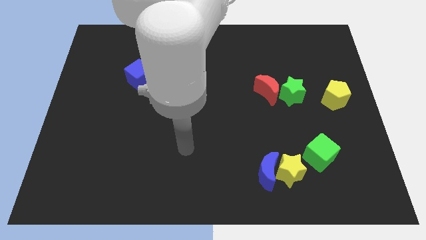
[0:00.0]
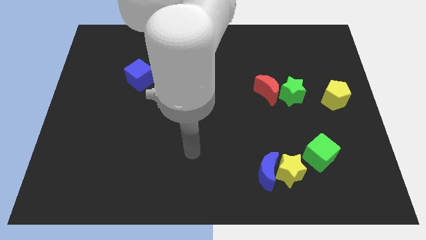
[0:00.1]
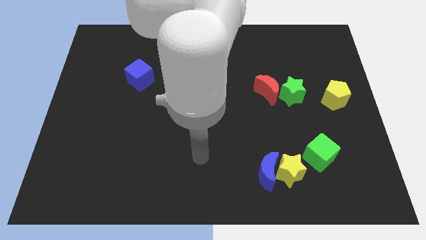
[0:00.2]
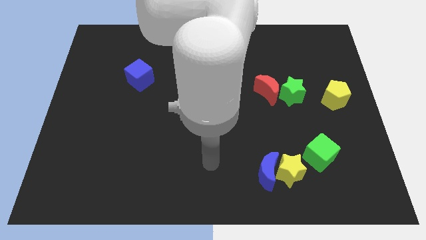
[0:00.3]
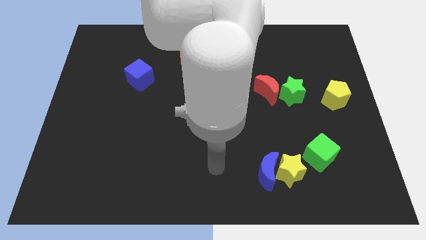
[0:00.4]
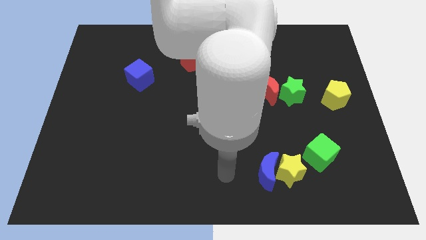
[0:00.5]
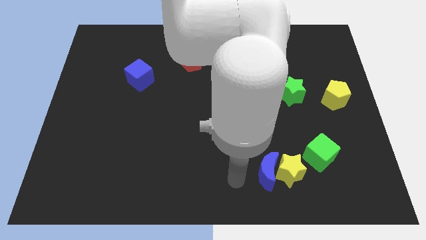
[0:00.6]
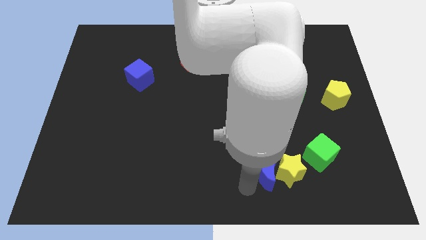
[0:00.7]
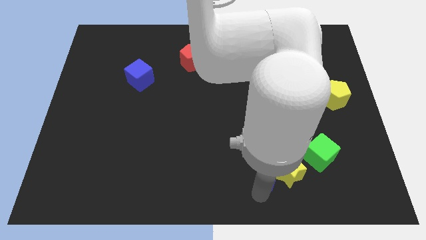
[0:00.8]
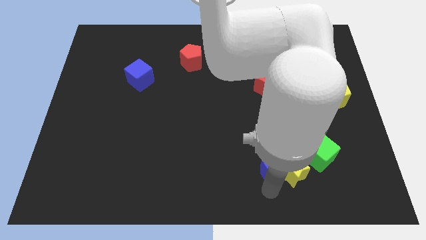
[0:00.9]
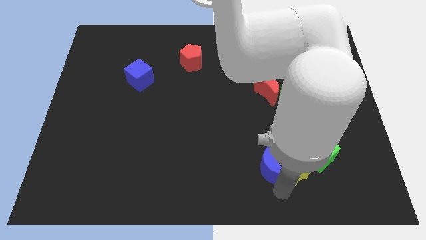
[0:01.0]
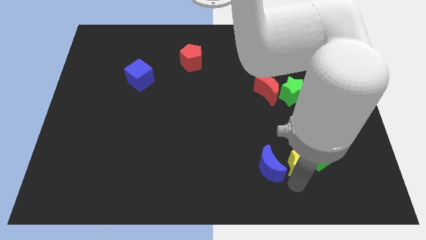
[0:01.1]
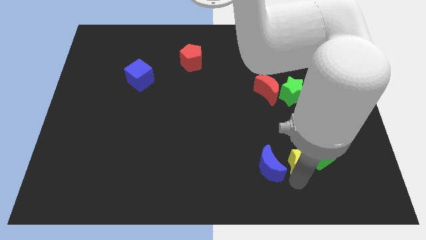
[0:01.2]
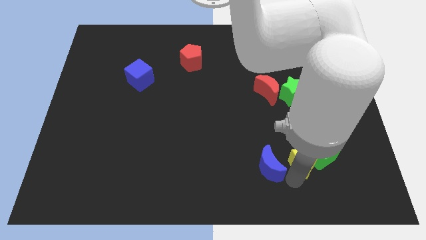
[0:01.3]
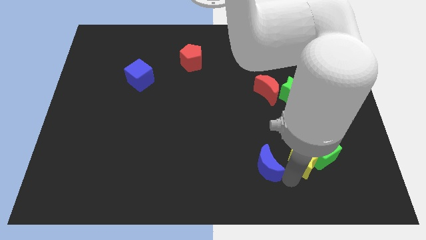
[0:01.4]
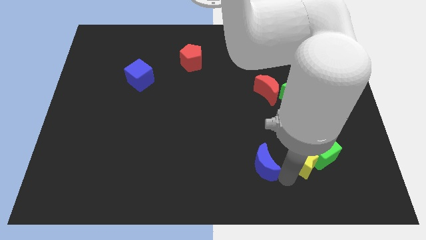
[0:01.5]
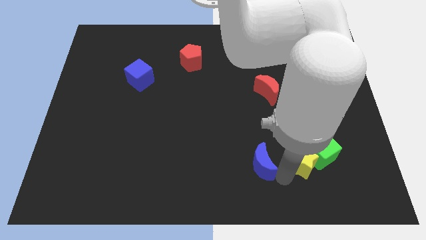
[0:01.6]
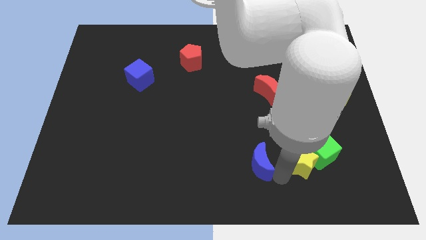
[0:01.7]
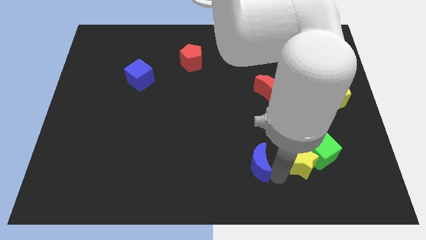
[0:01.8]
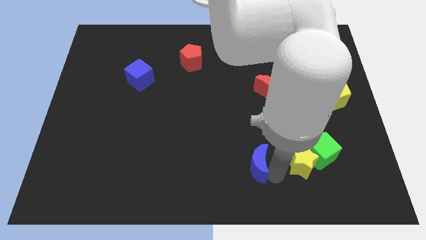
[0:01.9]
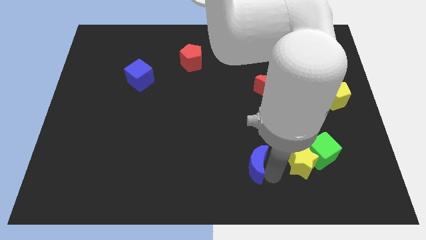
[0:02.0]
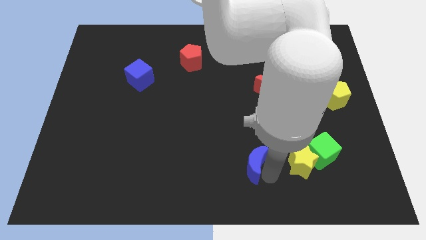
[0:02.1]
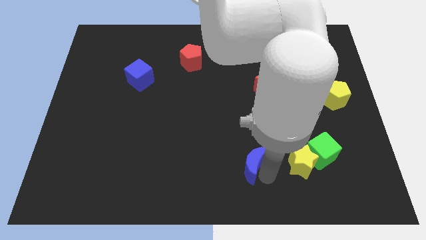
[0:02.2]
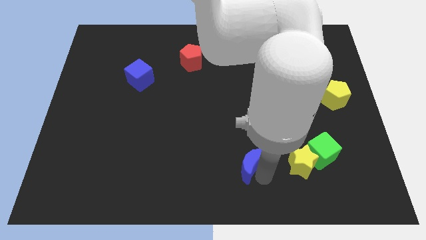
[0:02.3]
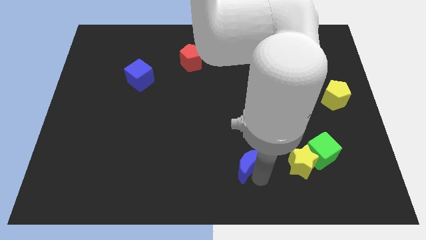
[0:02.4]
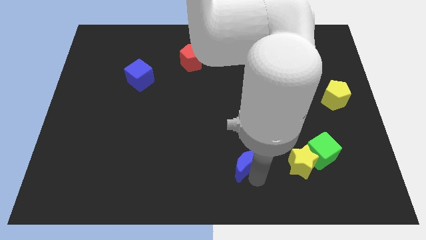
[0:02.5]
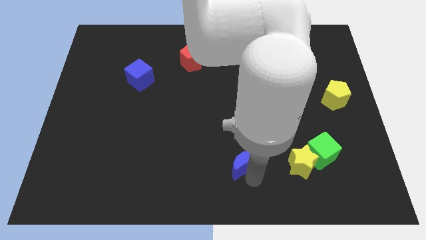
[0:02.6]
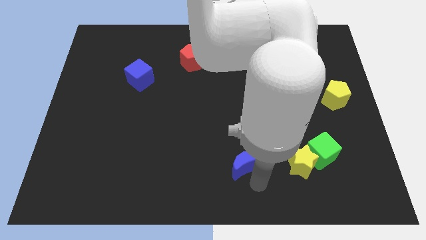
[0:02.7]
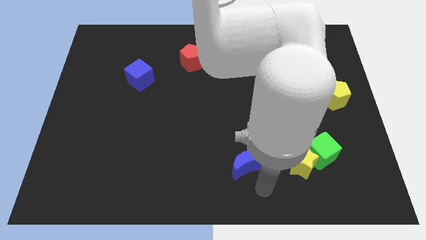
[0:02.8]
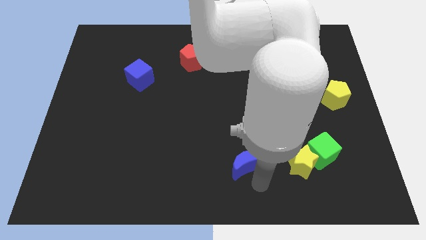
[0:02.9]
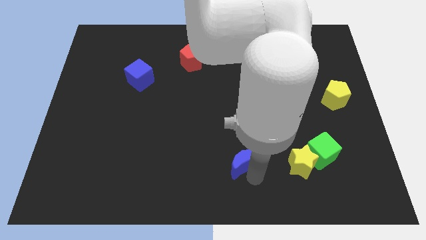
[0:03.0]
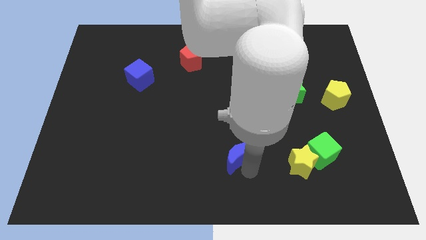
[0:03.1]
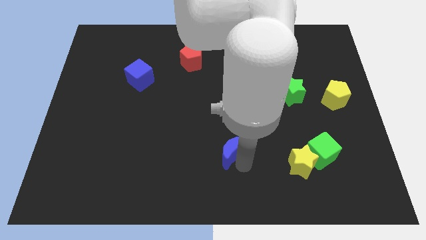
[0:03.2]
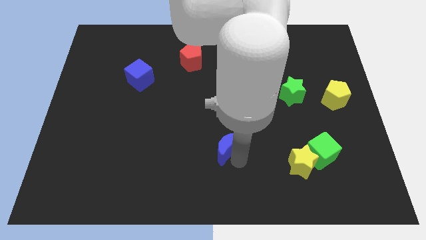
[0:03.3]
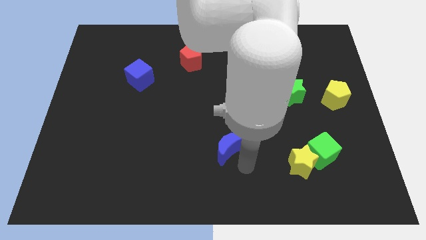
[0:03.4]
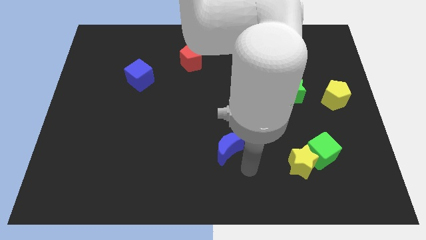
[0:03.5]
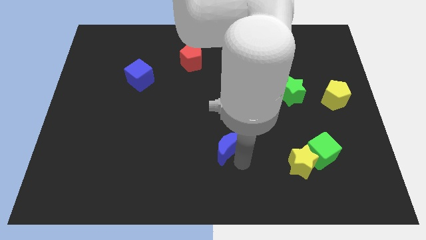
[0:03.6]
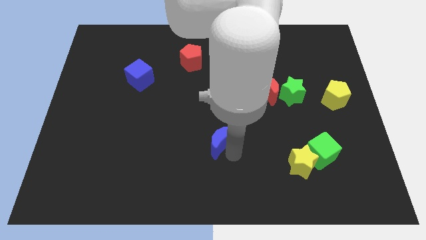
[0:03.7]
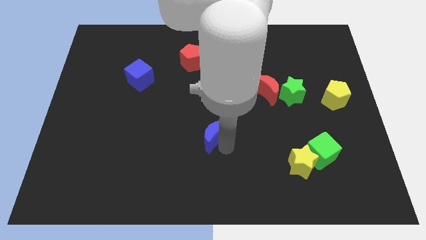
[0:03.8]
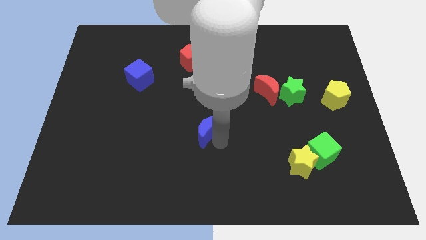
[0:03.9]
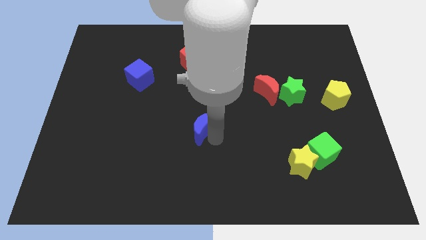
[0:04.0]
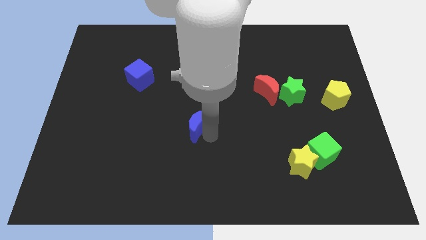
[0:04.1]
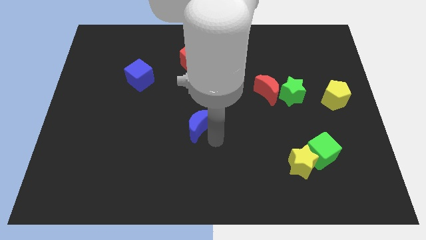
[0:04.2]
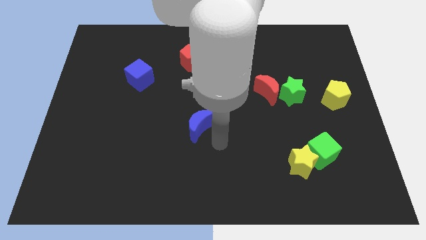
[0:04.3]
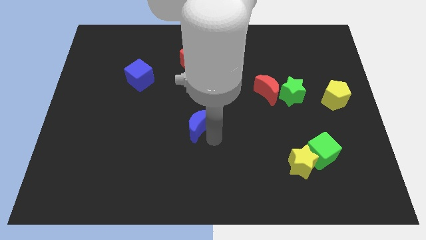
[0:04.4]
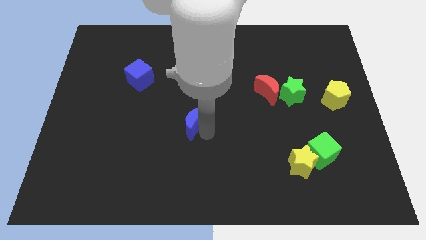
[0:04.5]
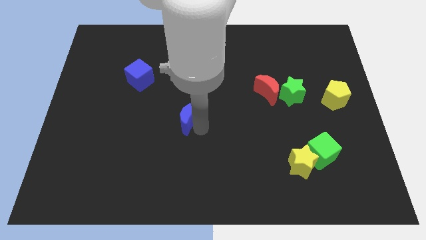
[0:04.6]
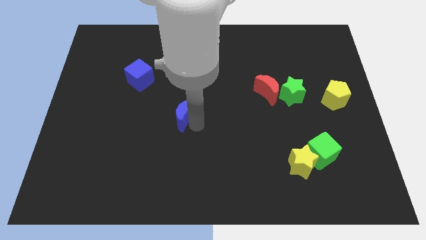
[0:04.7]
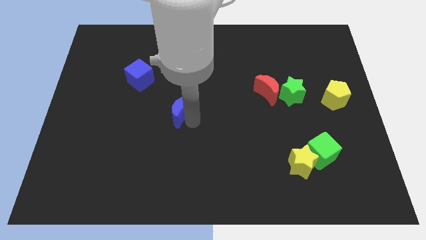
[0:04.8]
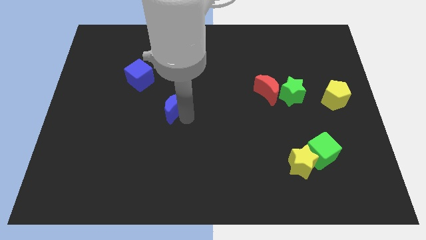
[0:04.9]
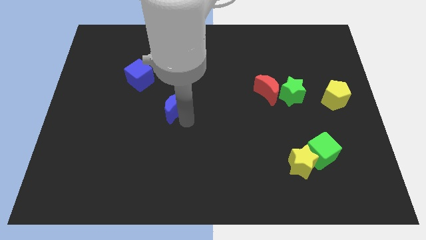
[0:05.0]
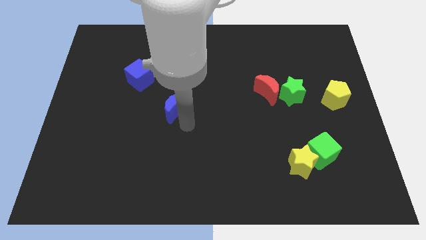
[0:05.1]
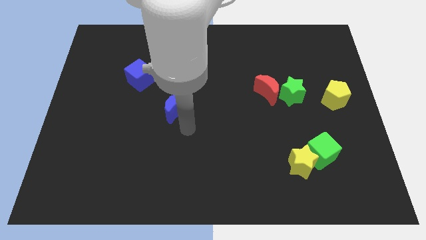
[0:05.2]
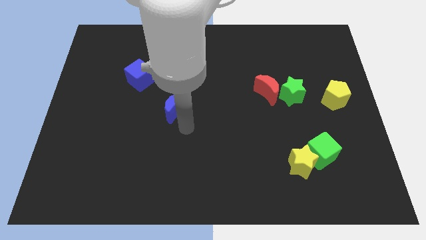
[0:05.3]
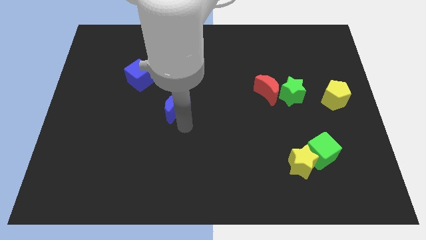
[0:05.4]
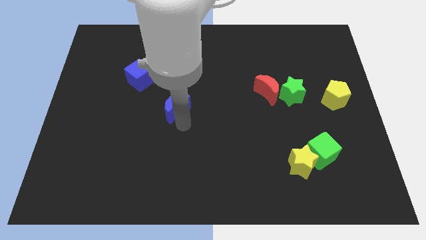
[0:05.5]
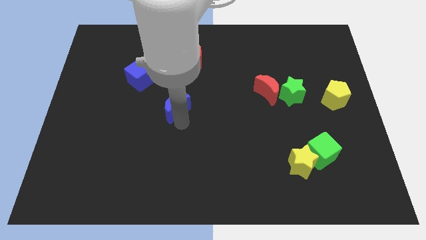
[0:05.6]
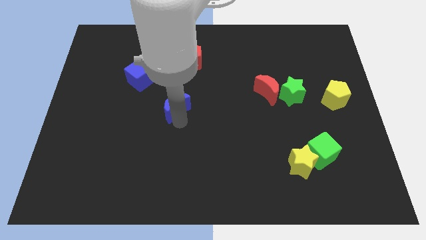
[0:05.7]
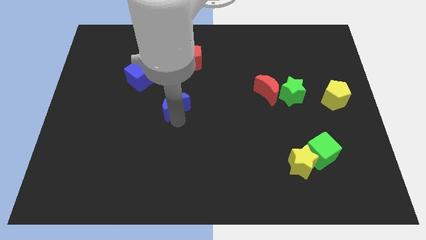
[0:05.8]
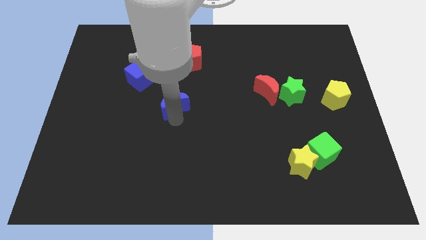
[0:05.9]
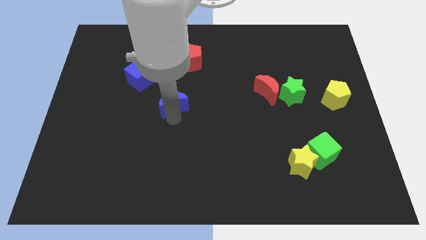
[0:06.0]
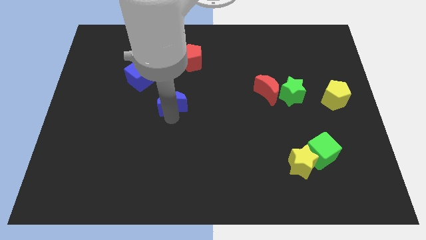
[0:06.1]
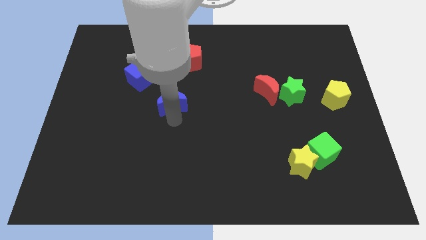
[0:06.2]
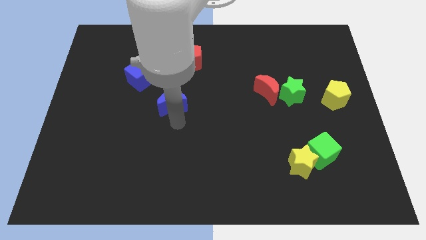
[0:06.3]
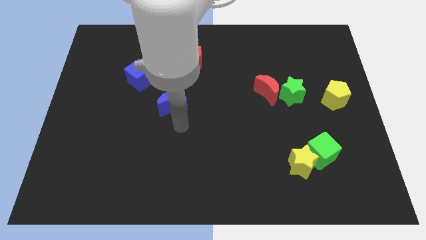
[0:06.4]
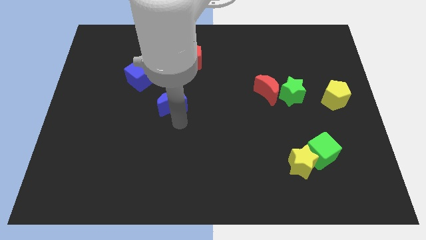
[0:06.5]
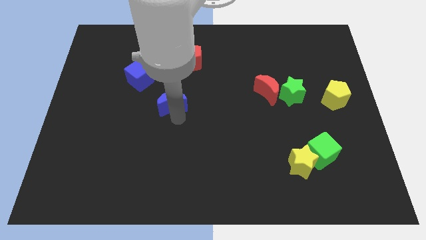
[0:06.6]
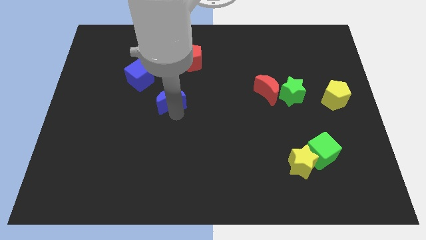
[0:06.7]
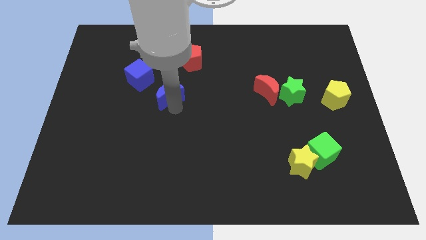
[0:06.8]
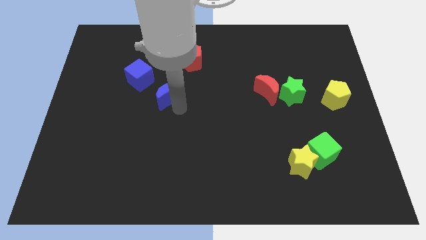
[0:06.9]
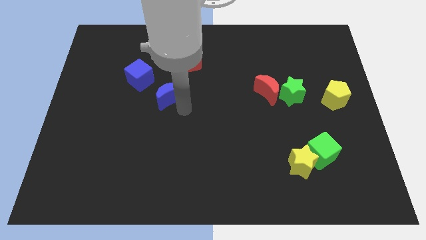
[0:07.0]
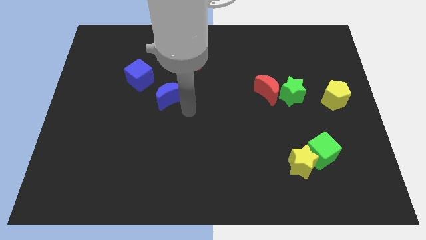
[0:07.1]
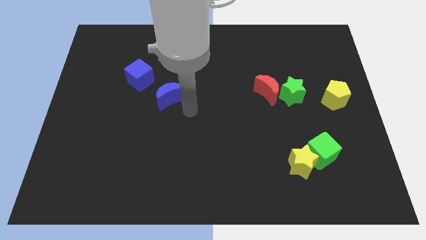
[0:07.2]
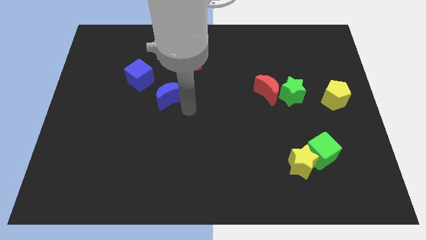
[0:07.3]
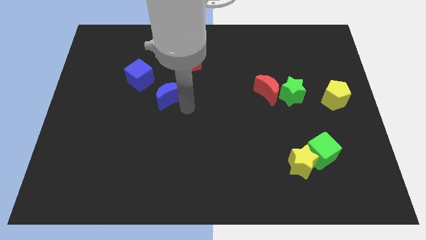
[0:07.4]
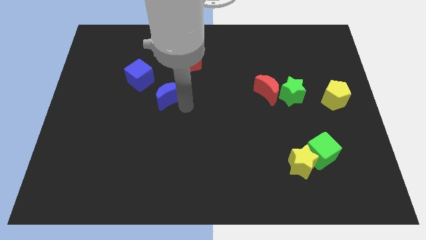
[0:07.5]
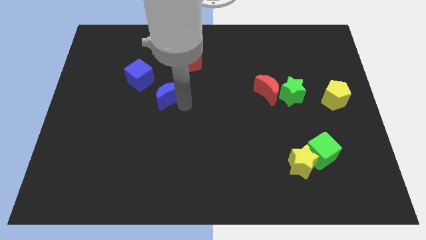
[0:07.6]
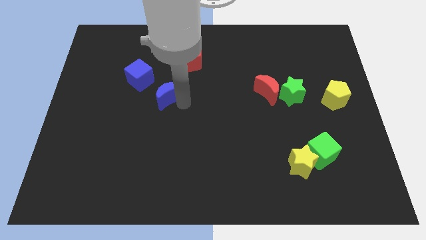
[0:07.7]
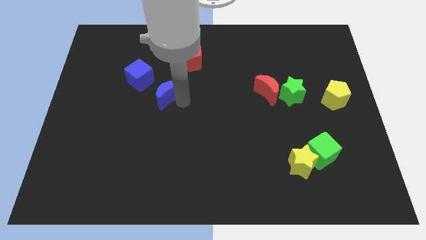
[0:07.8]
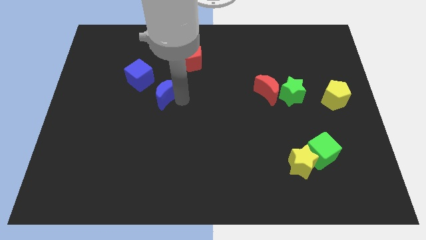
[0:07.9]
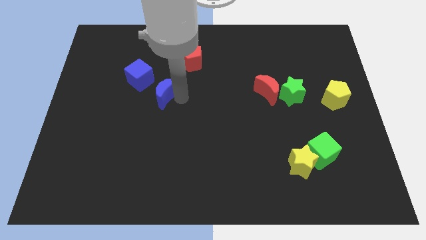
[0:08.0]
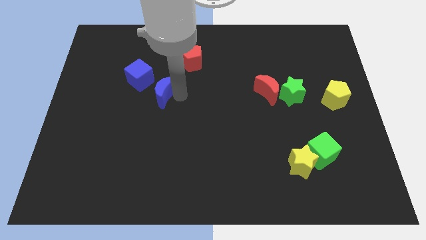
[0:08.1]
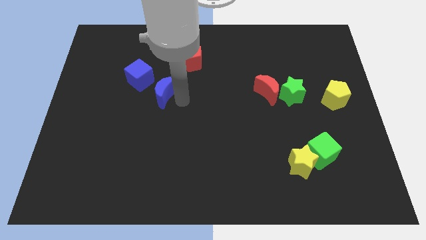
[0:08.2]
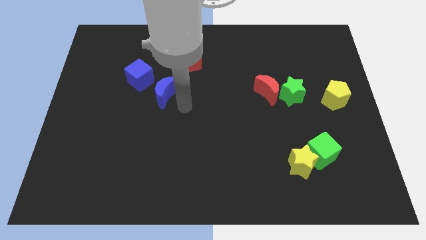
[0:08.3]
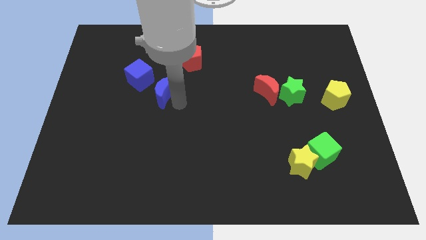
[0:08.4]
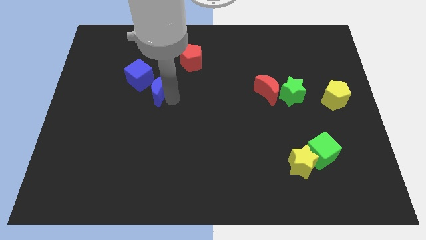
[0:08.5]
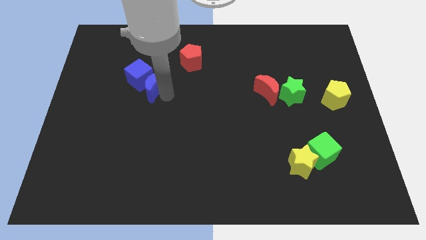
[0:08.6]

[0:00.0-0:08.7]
put the blue moon next to the blue cube
